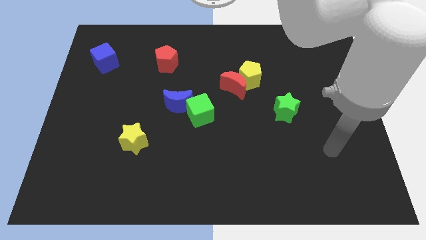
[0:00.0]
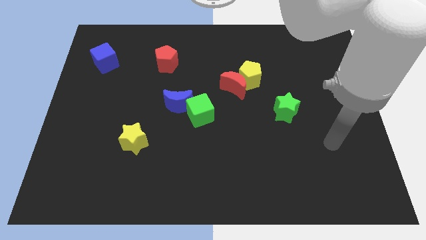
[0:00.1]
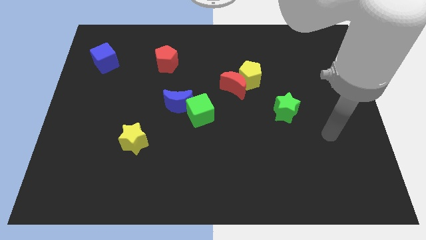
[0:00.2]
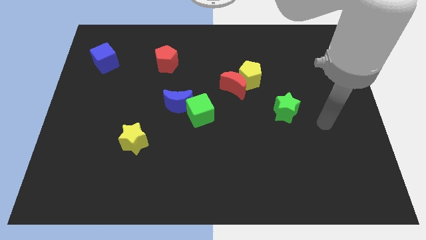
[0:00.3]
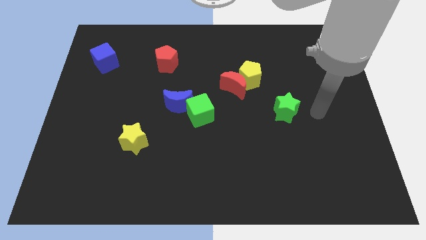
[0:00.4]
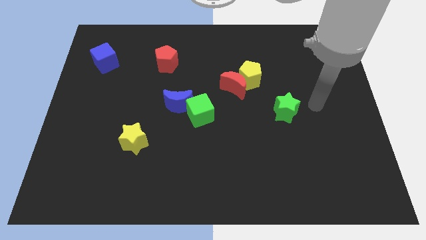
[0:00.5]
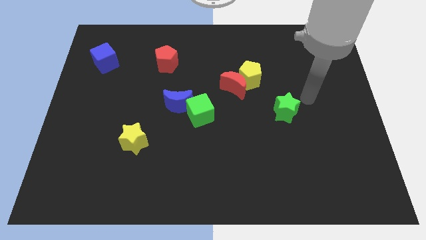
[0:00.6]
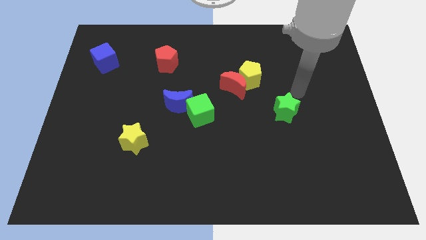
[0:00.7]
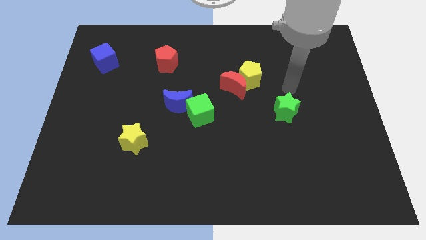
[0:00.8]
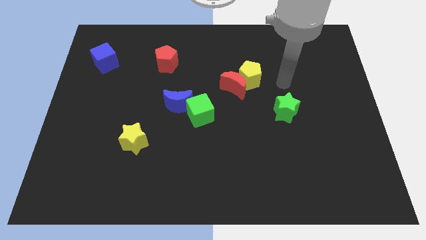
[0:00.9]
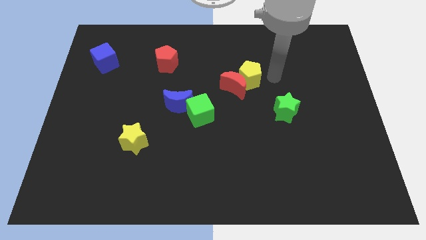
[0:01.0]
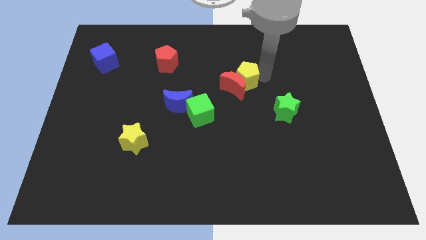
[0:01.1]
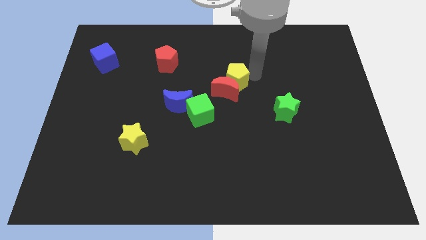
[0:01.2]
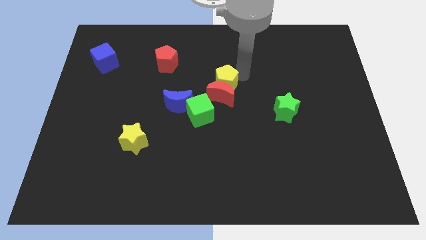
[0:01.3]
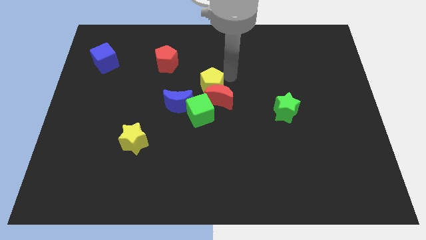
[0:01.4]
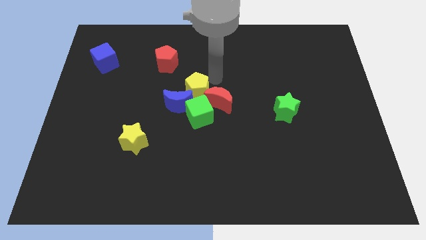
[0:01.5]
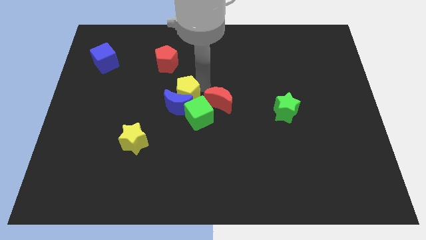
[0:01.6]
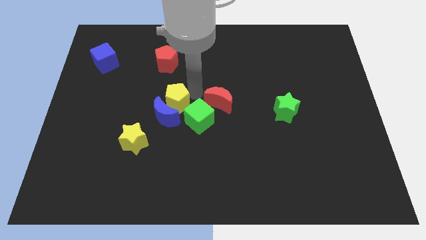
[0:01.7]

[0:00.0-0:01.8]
separate the red moon from the yellow pentagon

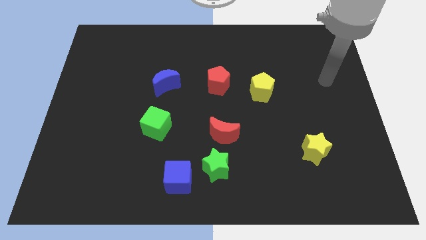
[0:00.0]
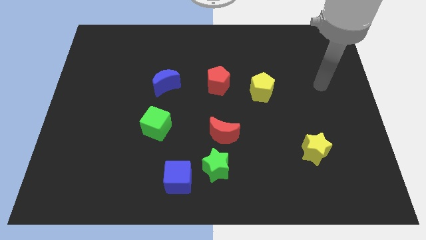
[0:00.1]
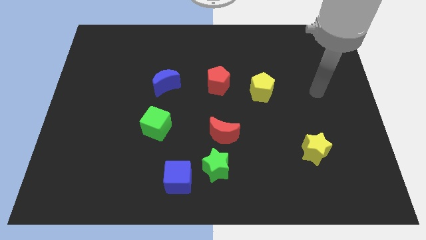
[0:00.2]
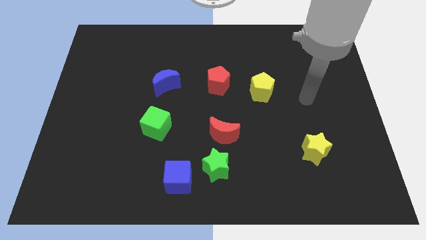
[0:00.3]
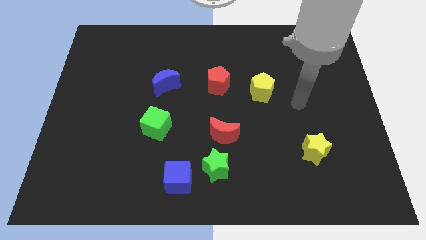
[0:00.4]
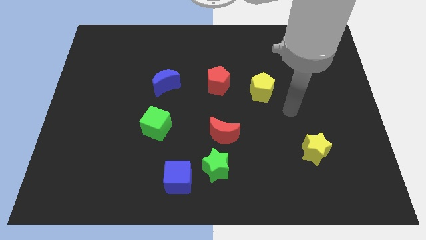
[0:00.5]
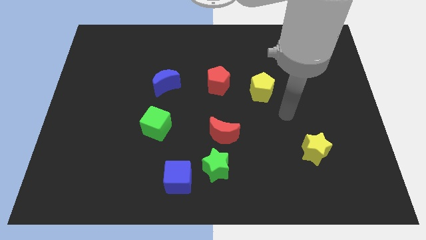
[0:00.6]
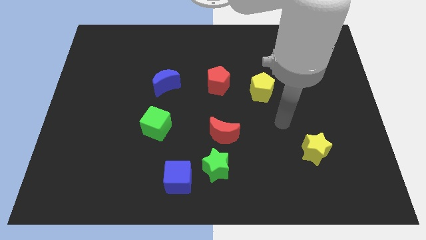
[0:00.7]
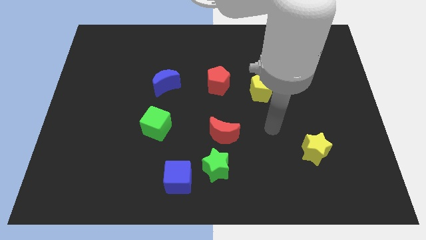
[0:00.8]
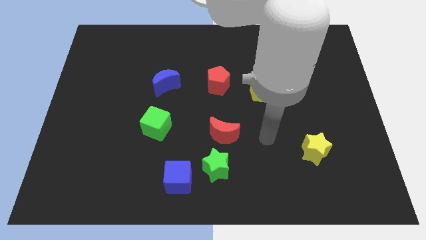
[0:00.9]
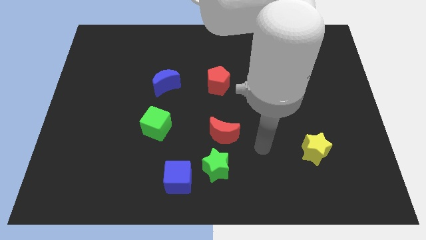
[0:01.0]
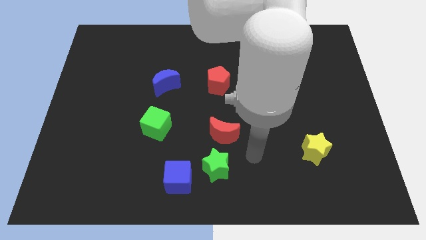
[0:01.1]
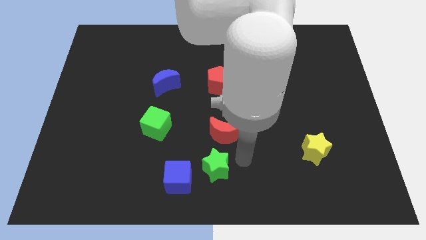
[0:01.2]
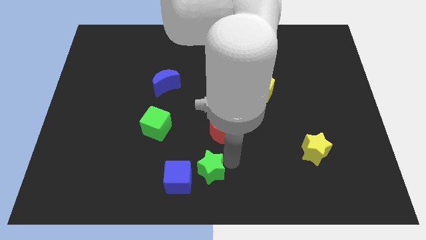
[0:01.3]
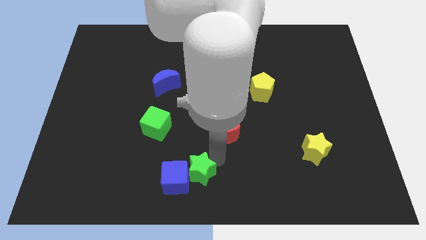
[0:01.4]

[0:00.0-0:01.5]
move the red moon away from the green star

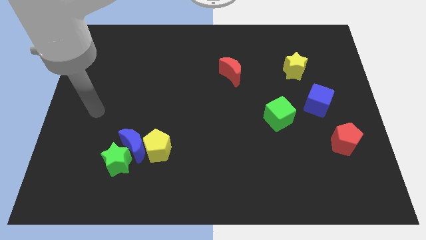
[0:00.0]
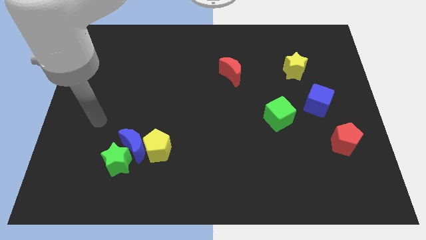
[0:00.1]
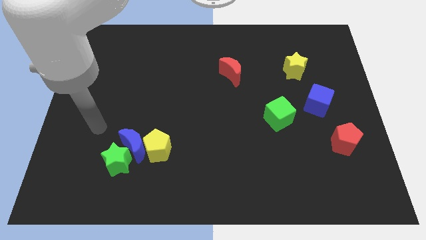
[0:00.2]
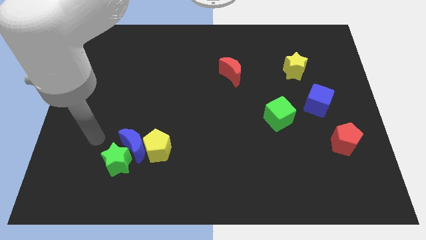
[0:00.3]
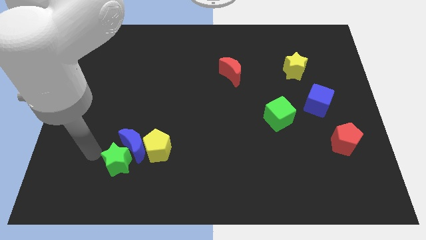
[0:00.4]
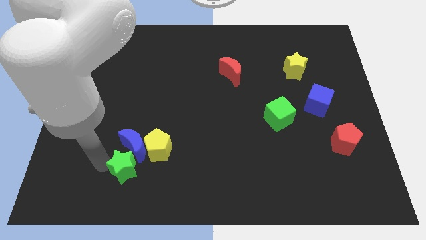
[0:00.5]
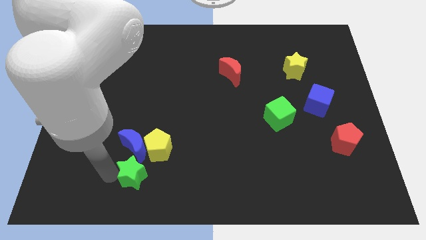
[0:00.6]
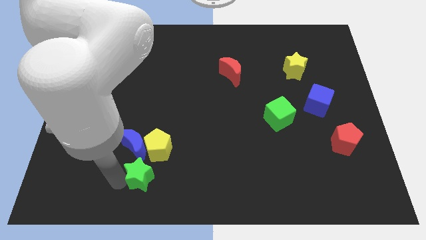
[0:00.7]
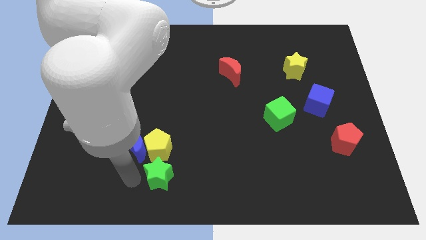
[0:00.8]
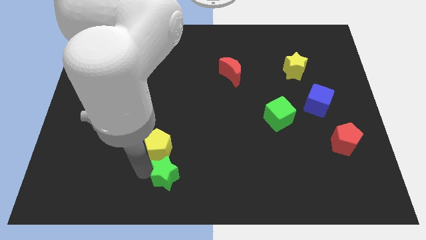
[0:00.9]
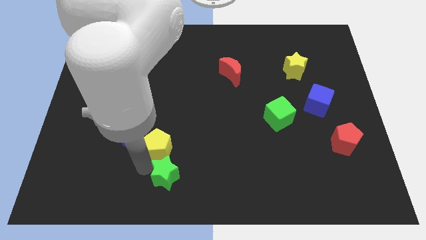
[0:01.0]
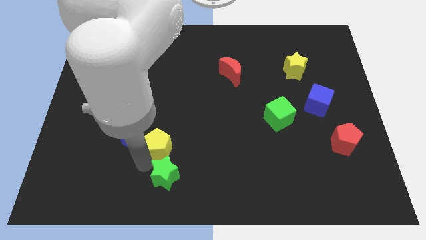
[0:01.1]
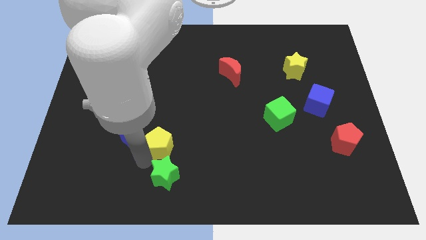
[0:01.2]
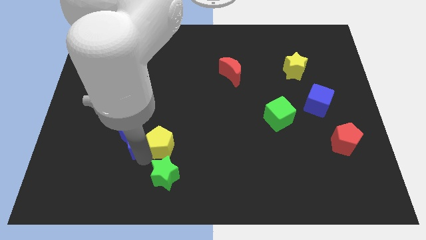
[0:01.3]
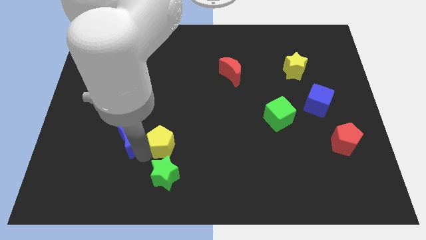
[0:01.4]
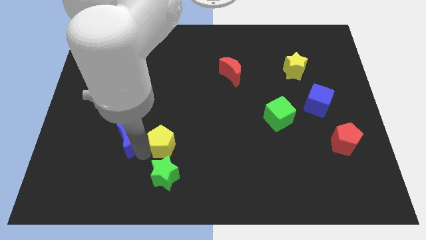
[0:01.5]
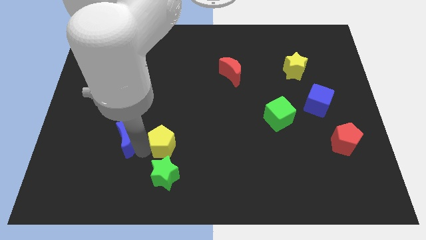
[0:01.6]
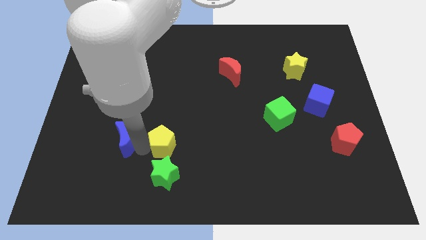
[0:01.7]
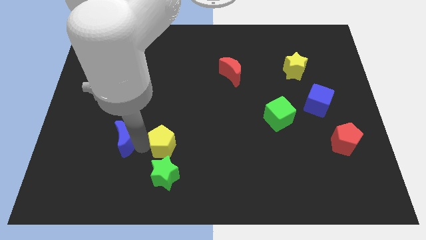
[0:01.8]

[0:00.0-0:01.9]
separate the blue moon from the green star and yellow pentagon

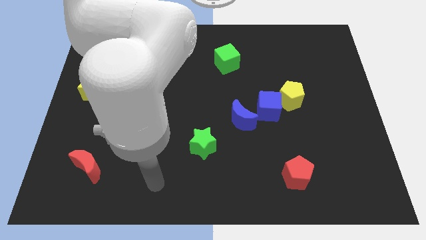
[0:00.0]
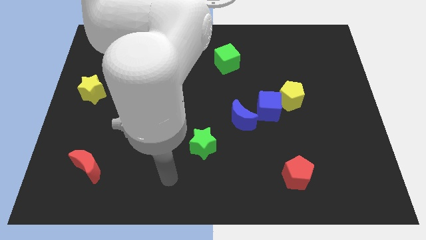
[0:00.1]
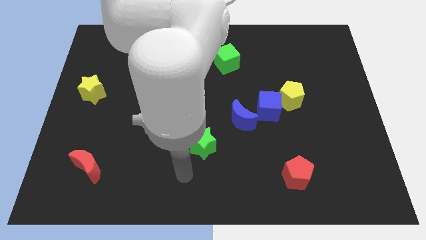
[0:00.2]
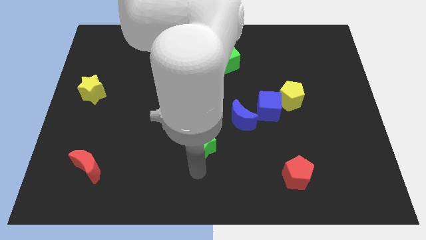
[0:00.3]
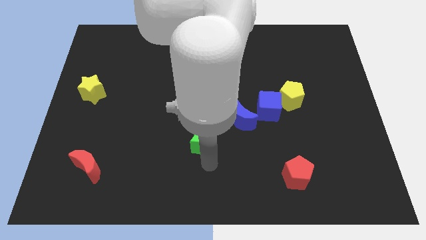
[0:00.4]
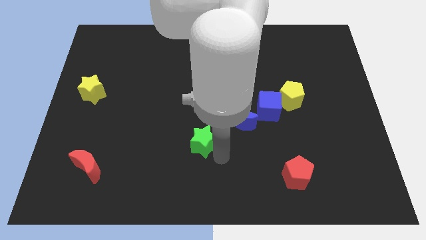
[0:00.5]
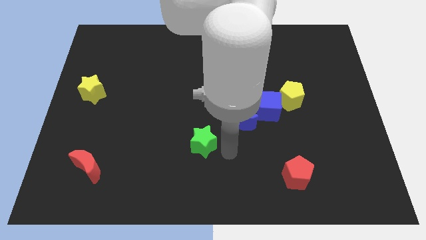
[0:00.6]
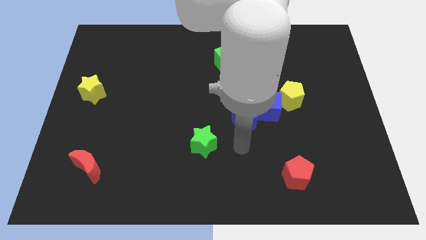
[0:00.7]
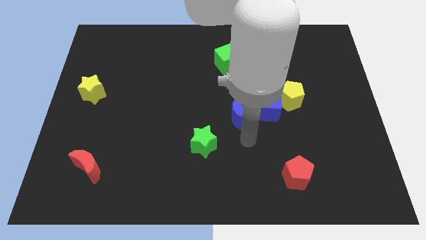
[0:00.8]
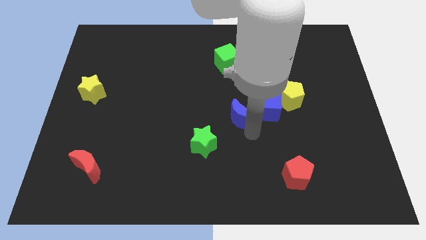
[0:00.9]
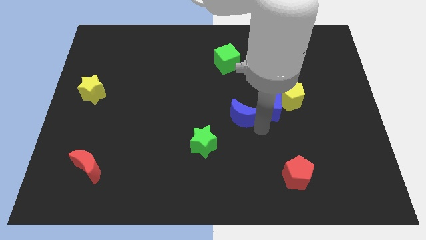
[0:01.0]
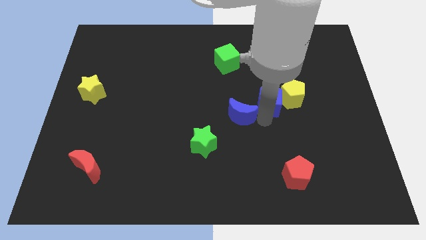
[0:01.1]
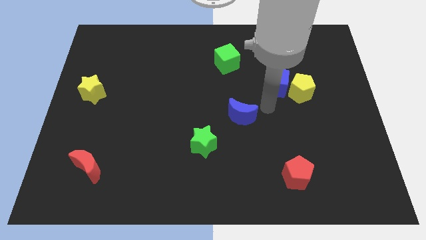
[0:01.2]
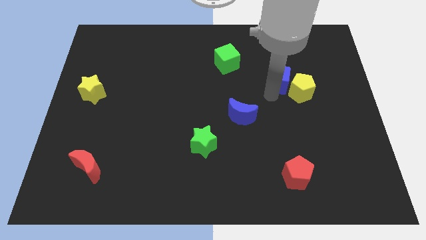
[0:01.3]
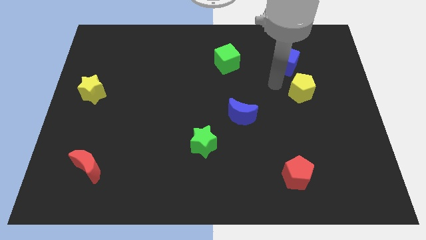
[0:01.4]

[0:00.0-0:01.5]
separate the yellow pentagon from the blue cube

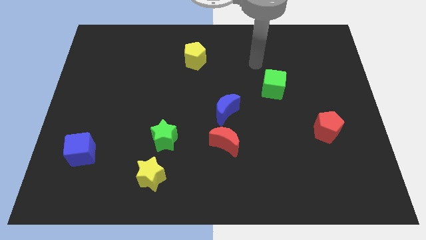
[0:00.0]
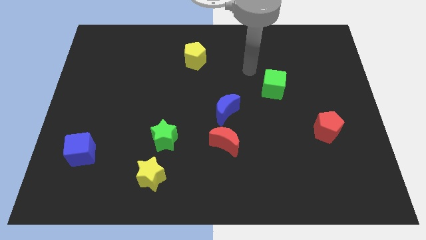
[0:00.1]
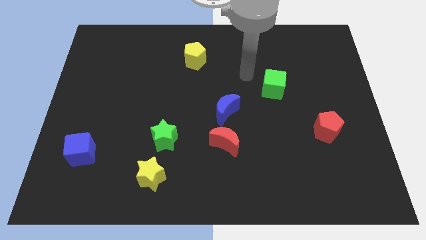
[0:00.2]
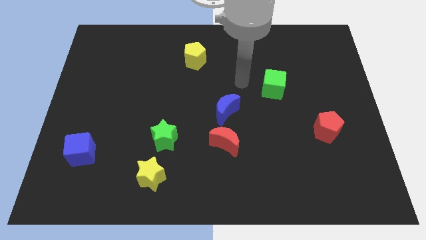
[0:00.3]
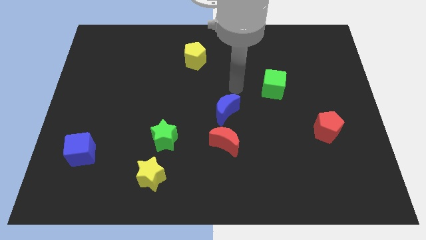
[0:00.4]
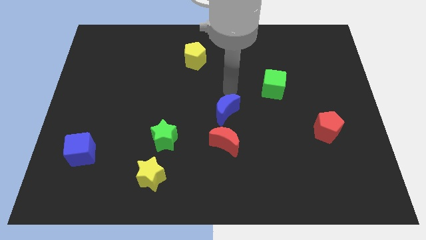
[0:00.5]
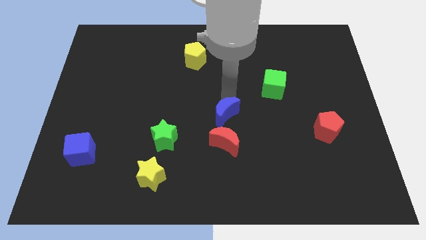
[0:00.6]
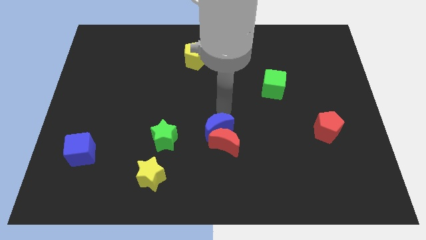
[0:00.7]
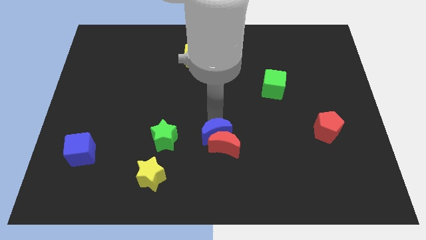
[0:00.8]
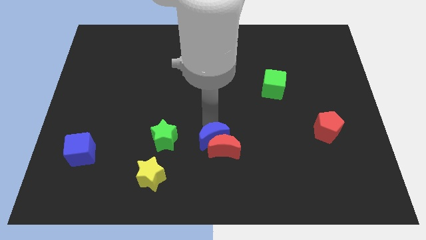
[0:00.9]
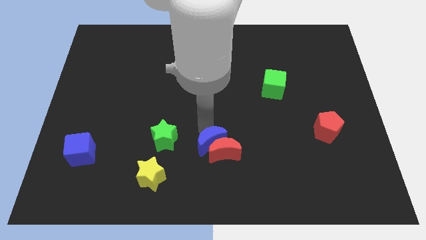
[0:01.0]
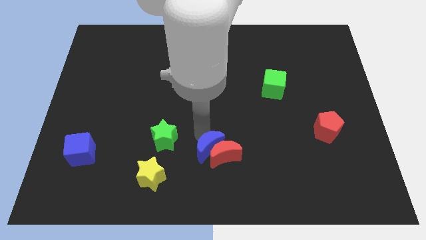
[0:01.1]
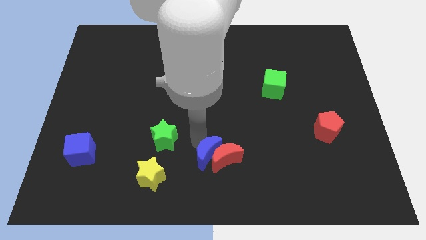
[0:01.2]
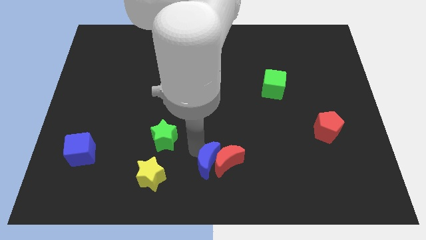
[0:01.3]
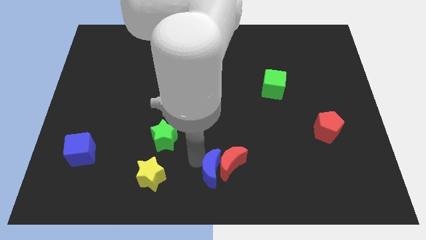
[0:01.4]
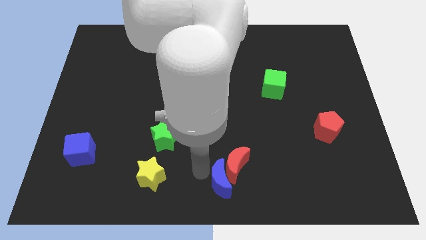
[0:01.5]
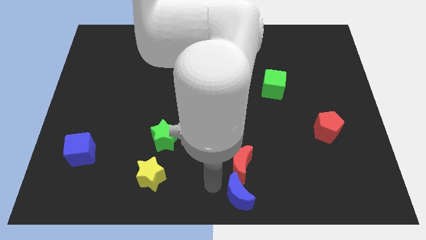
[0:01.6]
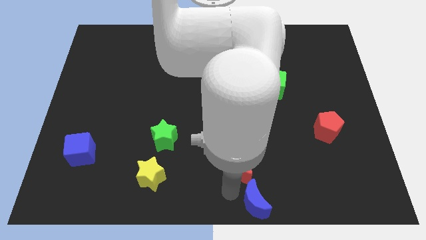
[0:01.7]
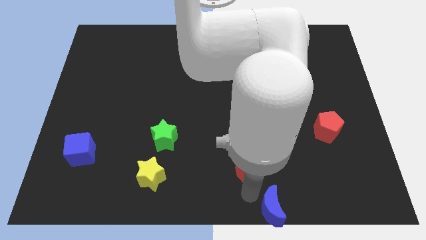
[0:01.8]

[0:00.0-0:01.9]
move the red moon away from the blue moon

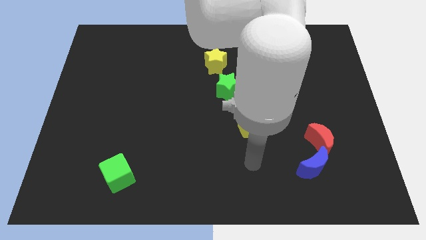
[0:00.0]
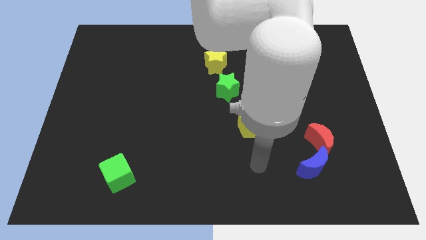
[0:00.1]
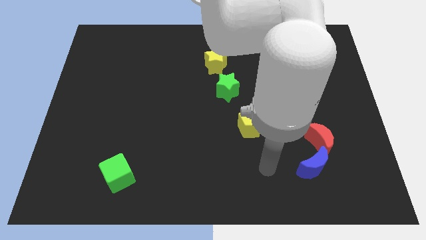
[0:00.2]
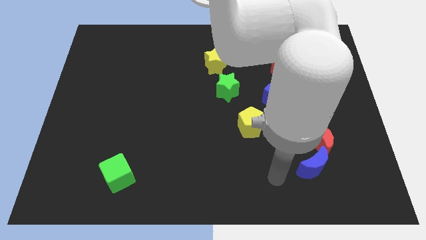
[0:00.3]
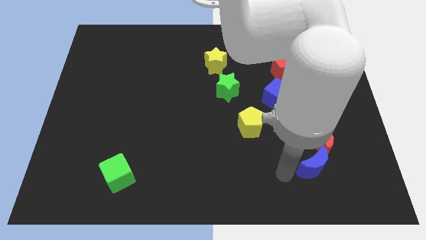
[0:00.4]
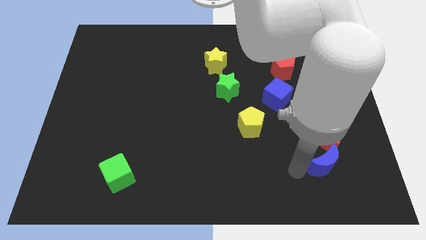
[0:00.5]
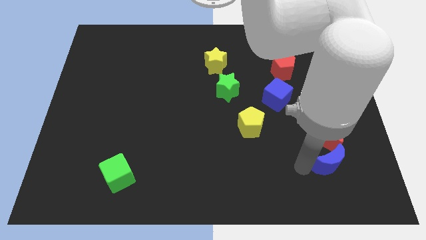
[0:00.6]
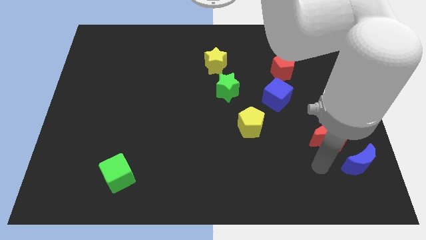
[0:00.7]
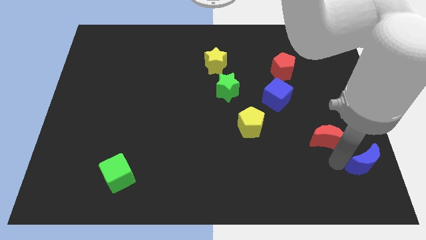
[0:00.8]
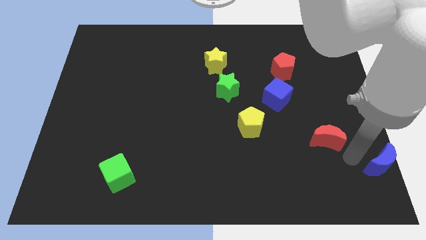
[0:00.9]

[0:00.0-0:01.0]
separate the red moon from the blue moon
